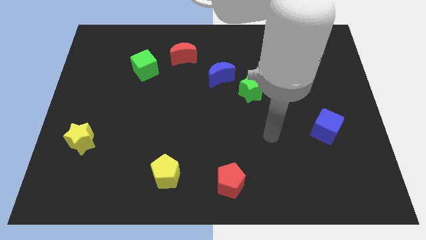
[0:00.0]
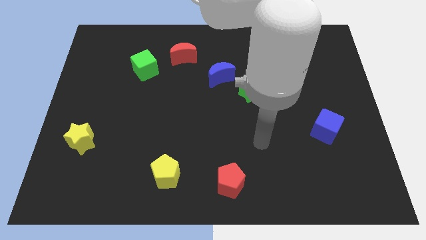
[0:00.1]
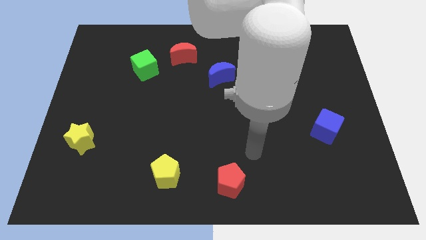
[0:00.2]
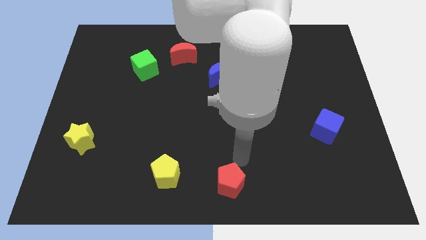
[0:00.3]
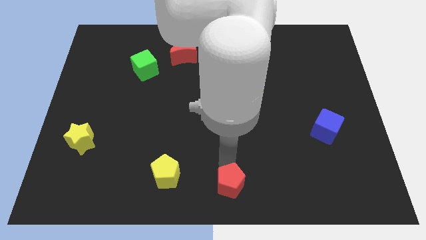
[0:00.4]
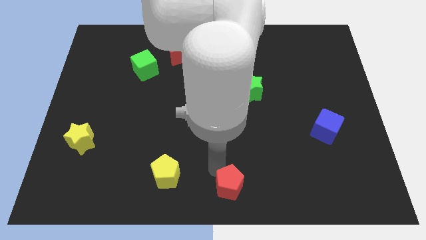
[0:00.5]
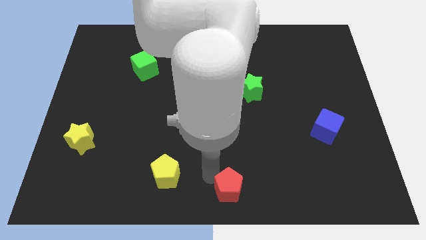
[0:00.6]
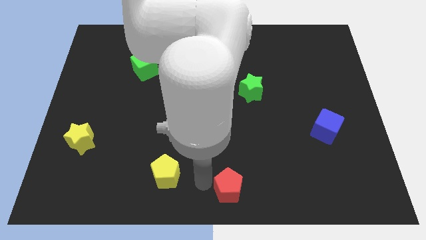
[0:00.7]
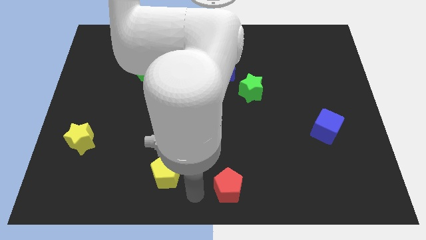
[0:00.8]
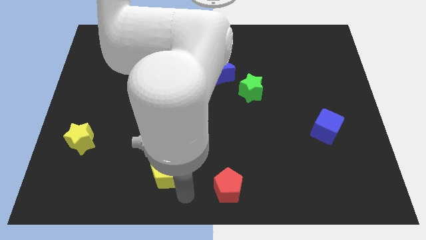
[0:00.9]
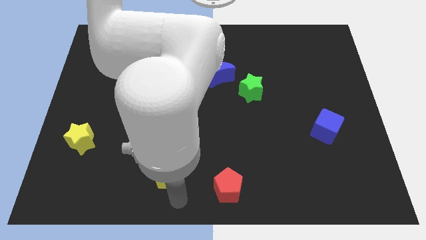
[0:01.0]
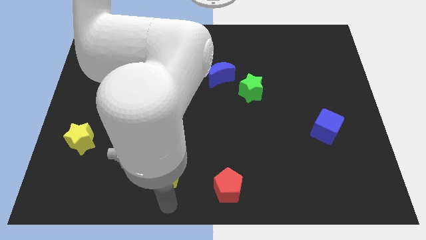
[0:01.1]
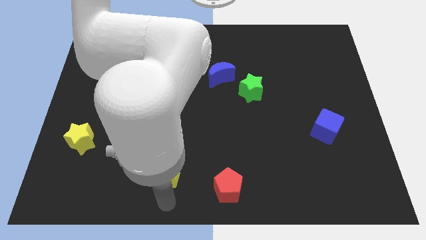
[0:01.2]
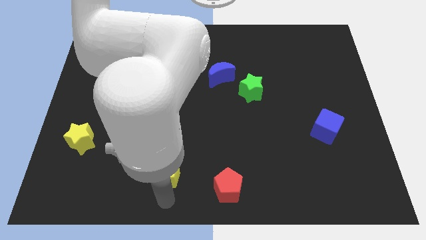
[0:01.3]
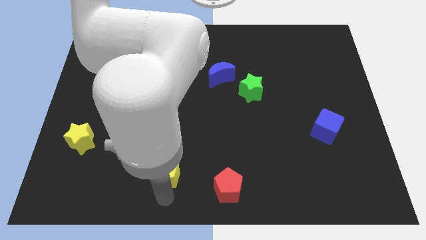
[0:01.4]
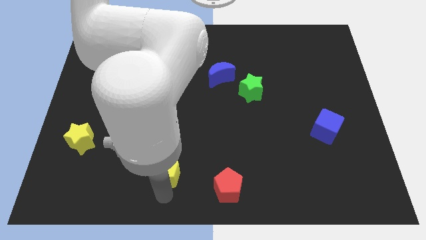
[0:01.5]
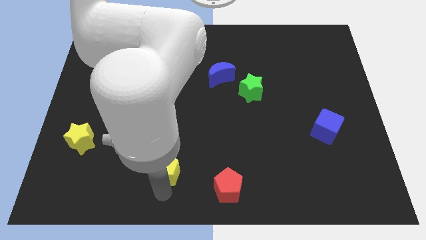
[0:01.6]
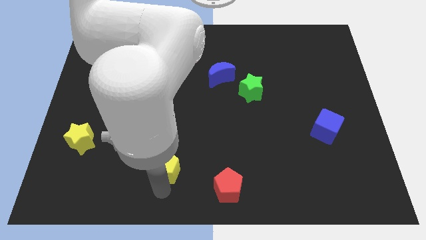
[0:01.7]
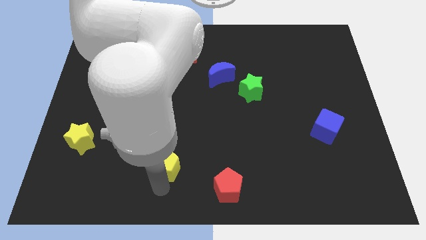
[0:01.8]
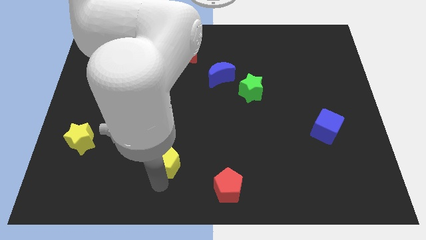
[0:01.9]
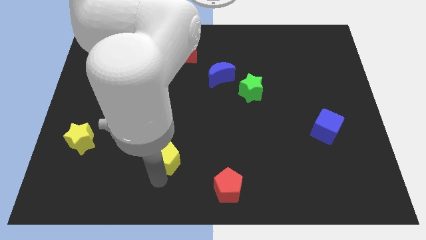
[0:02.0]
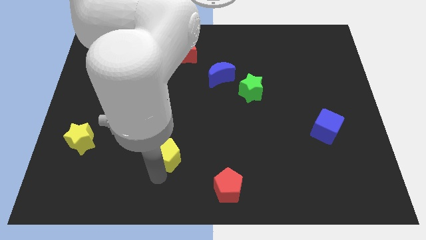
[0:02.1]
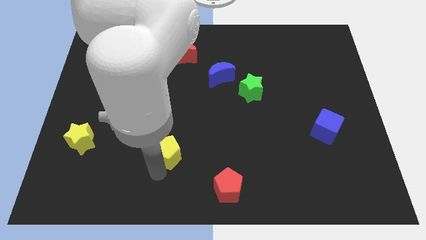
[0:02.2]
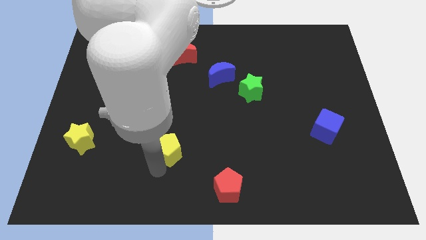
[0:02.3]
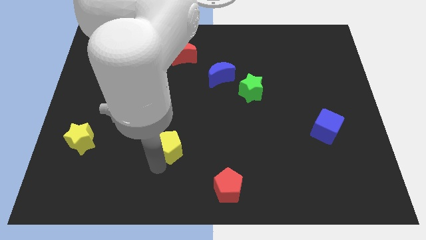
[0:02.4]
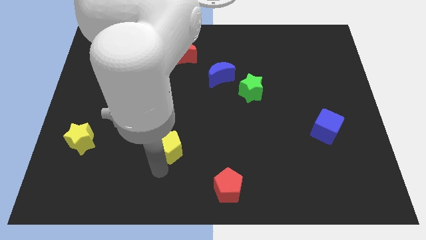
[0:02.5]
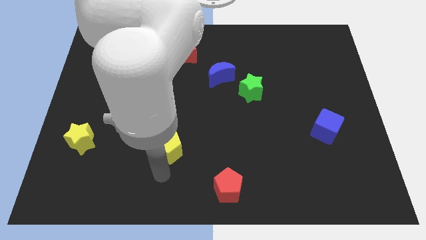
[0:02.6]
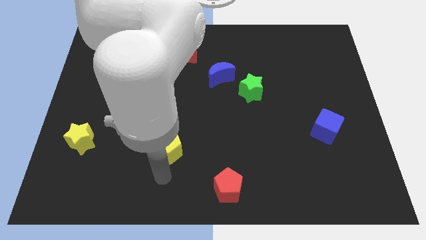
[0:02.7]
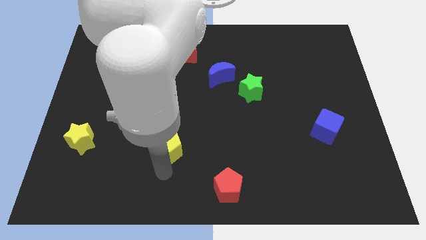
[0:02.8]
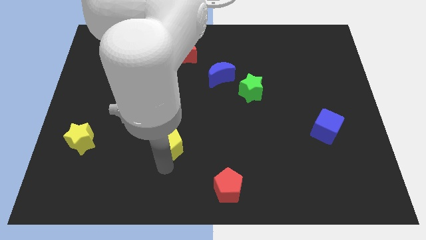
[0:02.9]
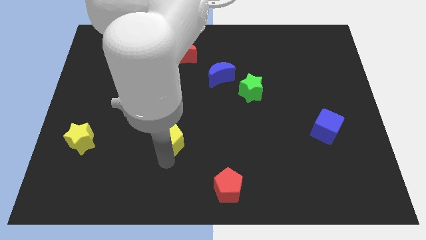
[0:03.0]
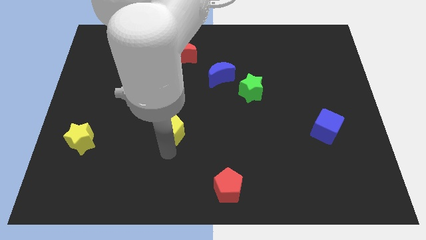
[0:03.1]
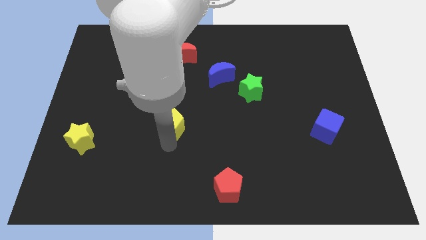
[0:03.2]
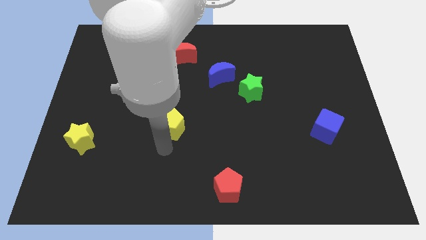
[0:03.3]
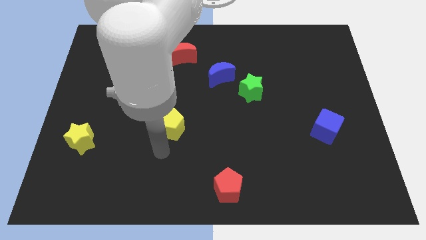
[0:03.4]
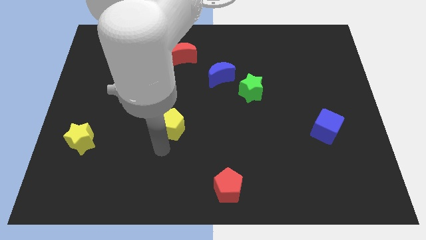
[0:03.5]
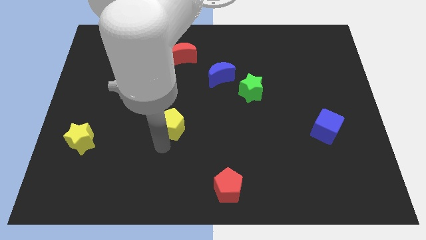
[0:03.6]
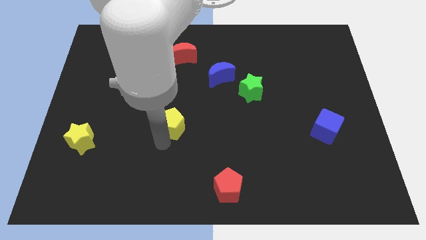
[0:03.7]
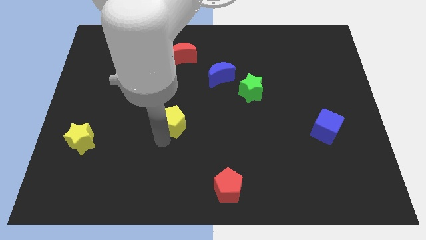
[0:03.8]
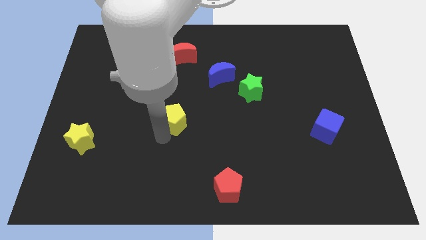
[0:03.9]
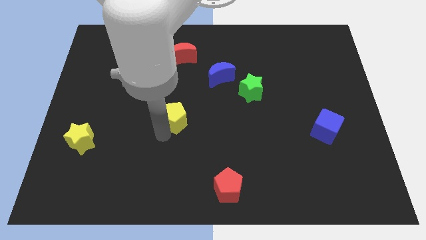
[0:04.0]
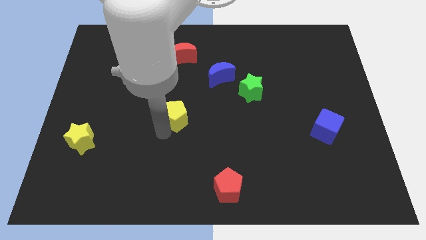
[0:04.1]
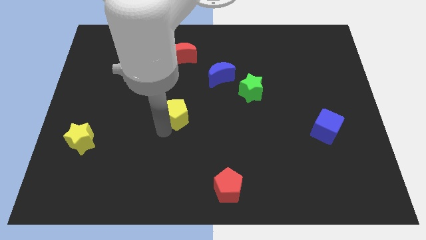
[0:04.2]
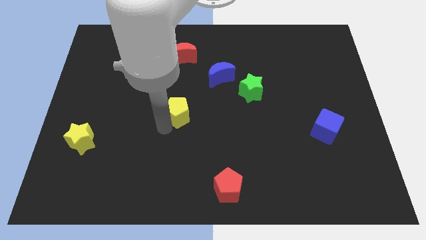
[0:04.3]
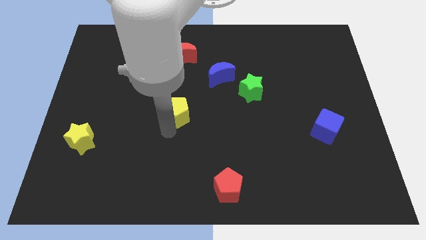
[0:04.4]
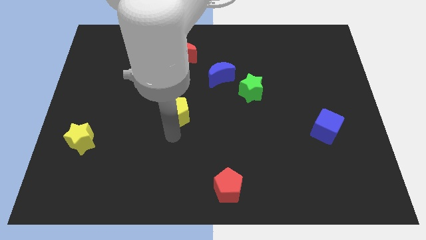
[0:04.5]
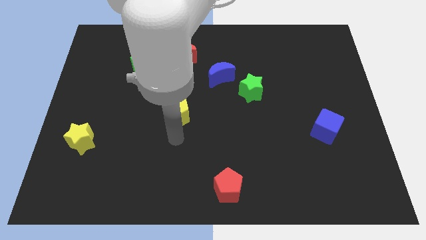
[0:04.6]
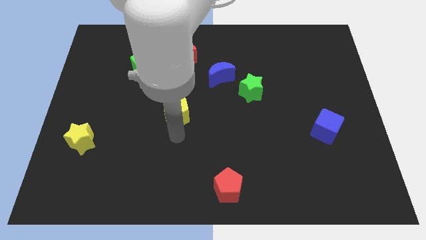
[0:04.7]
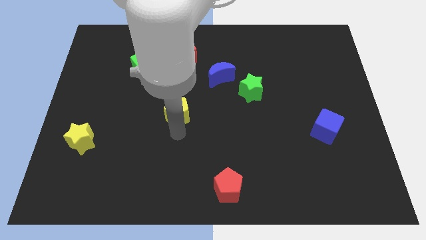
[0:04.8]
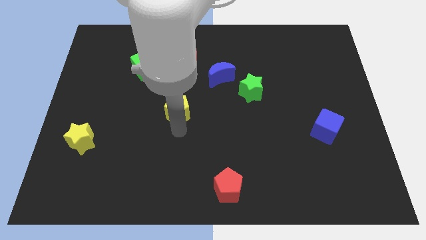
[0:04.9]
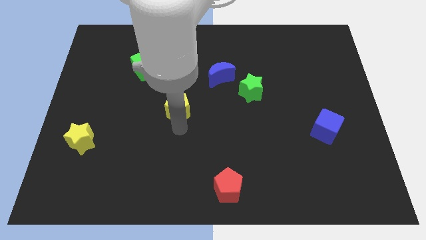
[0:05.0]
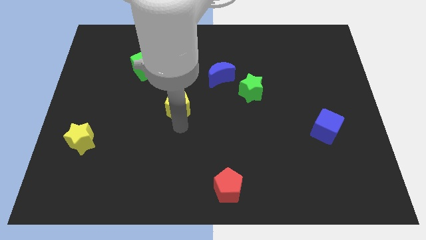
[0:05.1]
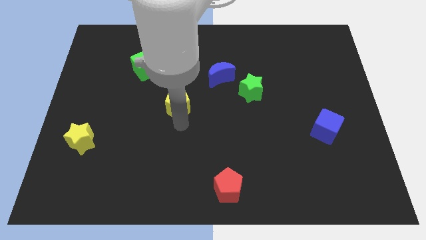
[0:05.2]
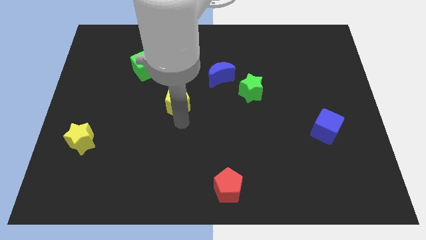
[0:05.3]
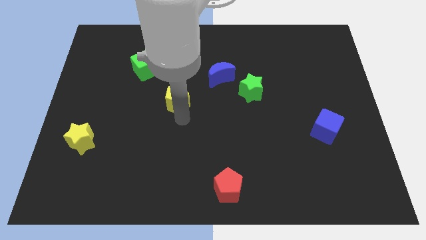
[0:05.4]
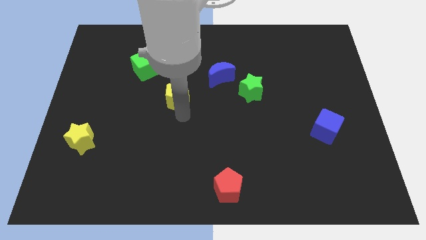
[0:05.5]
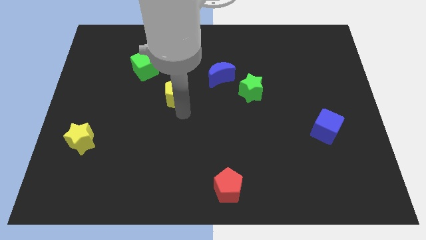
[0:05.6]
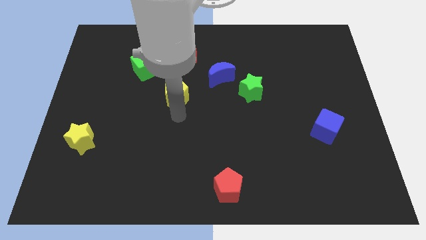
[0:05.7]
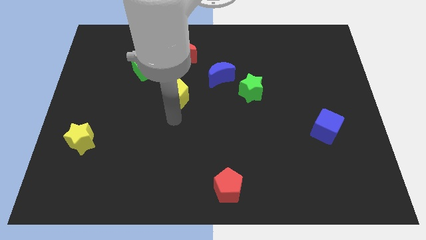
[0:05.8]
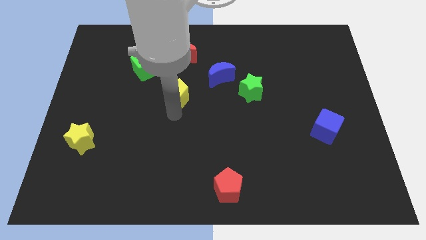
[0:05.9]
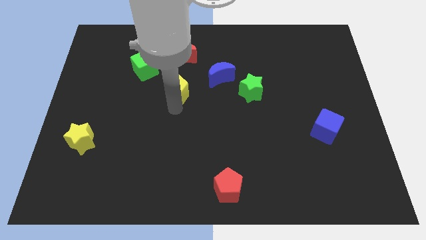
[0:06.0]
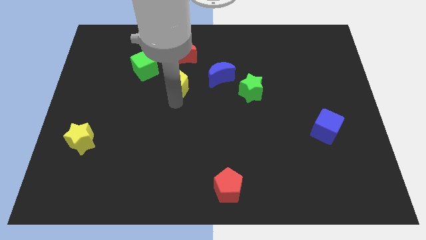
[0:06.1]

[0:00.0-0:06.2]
put the yellow pentagon left of the blue moon
